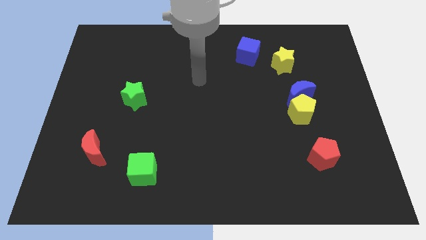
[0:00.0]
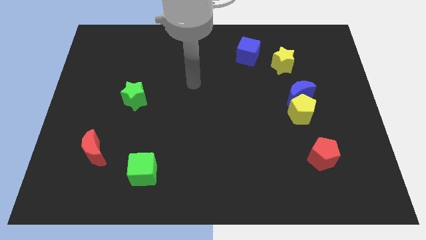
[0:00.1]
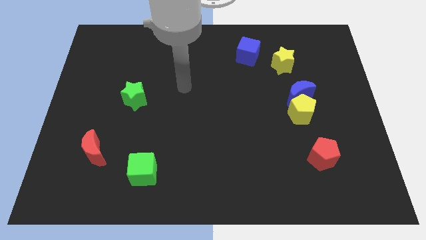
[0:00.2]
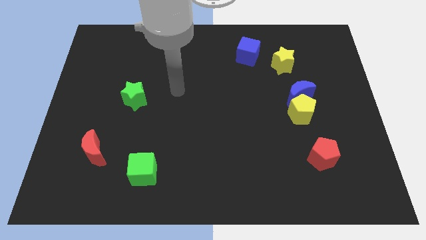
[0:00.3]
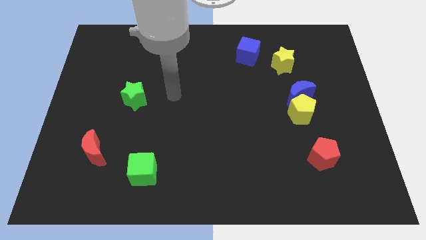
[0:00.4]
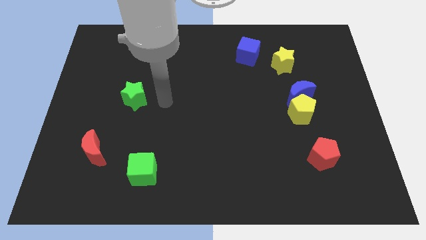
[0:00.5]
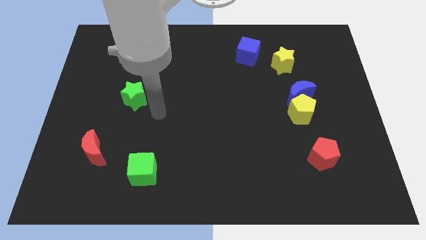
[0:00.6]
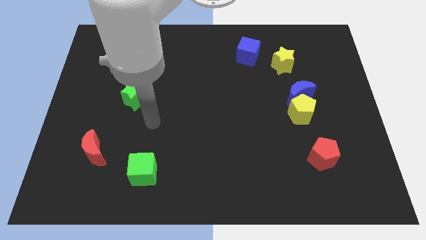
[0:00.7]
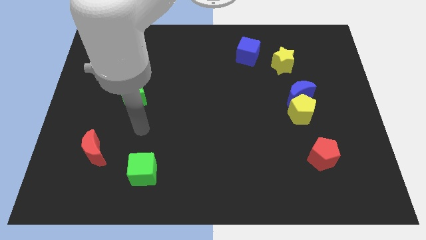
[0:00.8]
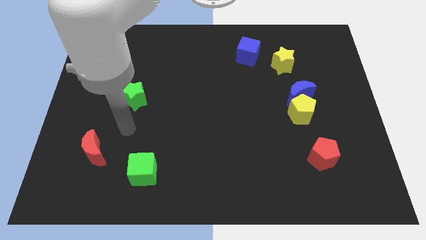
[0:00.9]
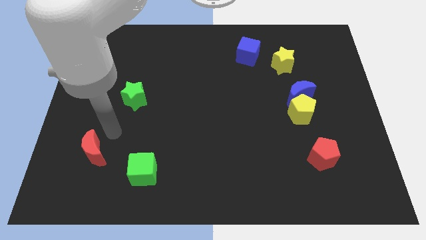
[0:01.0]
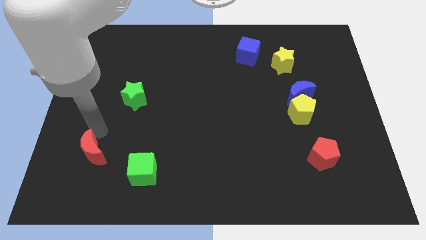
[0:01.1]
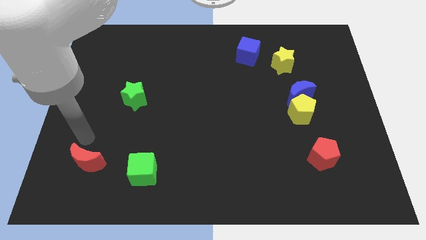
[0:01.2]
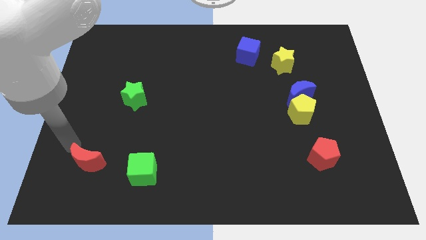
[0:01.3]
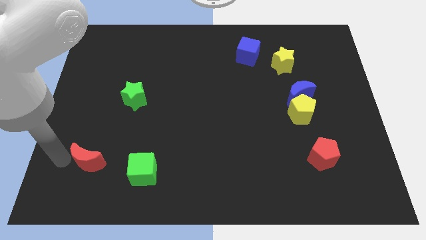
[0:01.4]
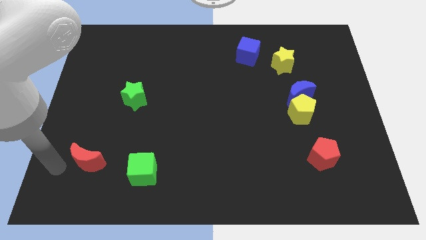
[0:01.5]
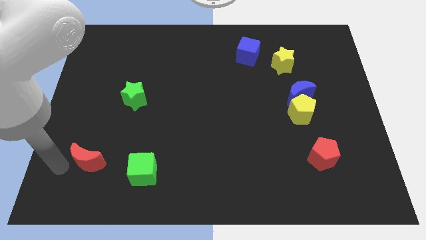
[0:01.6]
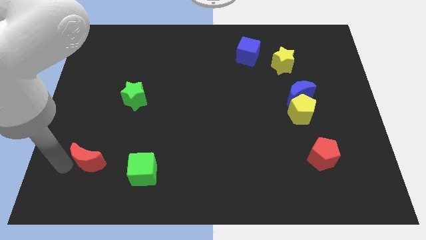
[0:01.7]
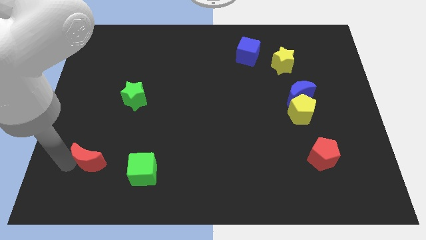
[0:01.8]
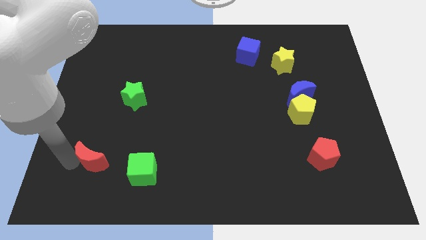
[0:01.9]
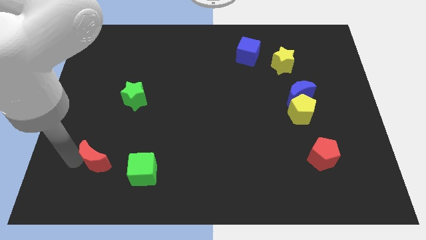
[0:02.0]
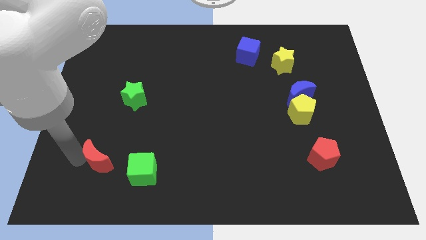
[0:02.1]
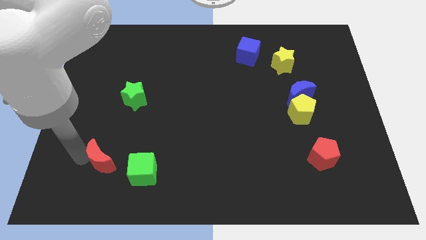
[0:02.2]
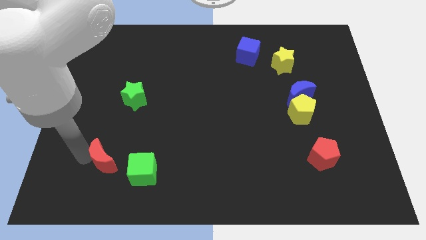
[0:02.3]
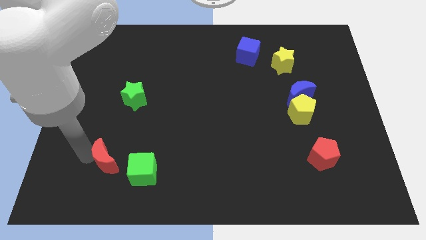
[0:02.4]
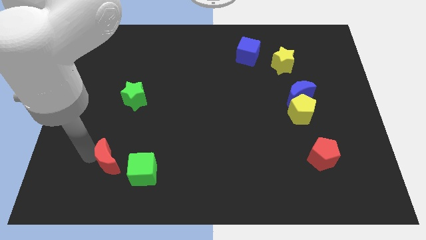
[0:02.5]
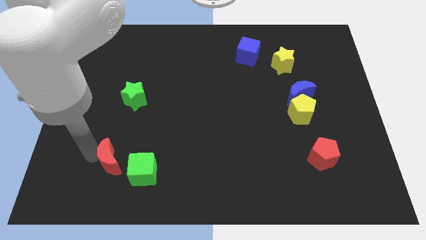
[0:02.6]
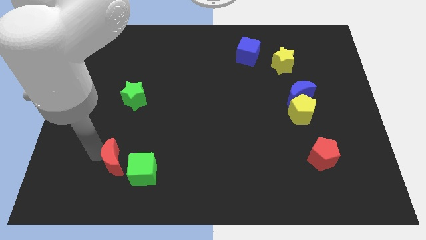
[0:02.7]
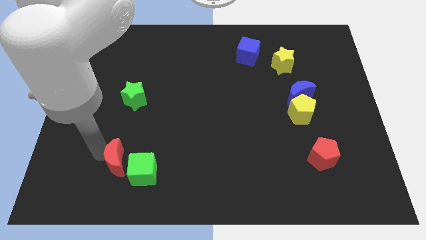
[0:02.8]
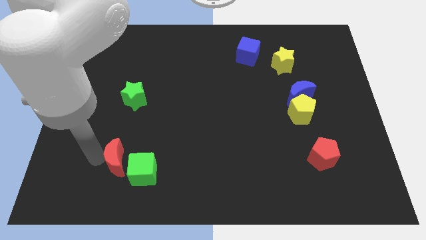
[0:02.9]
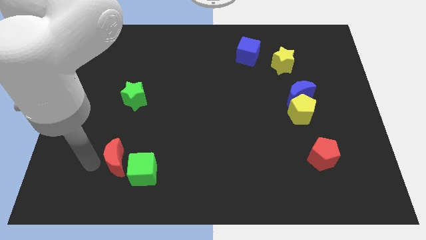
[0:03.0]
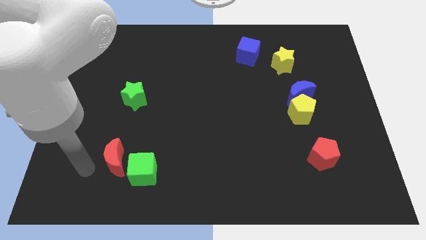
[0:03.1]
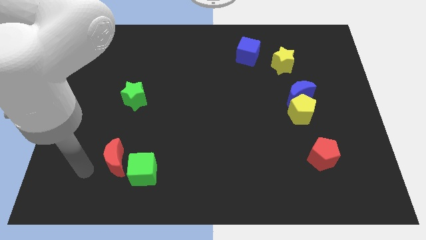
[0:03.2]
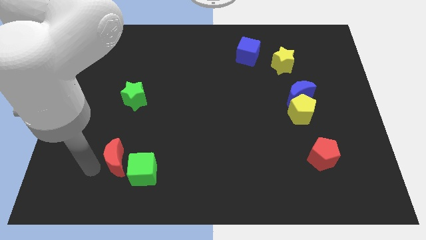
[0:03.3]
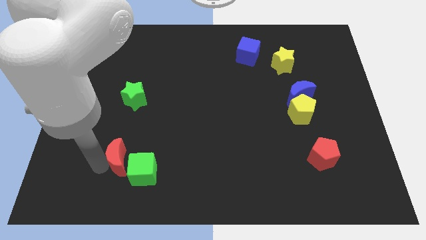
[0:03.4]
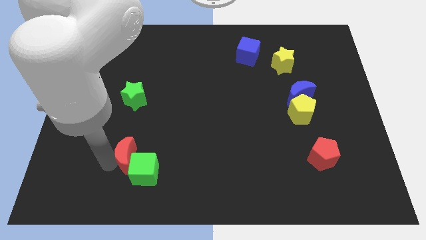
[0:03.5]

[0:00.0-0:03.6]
push the red moon right somewhat

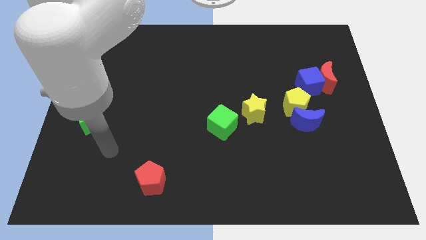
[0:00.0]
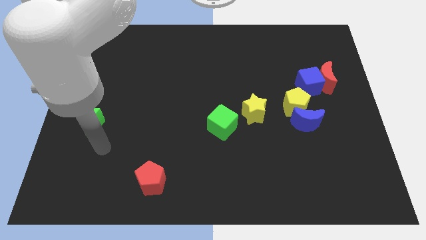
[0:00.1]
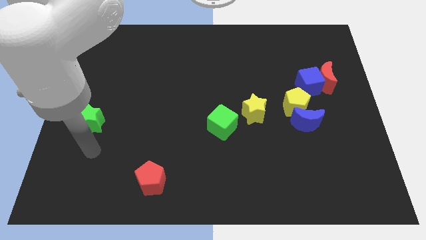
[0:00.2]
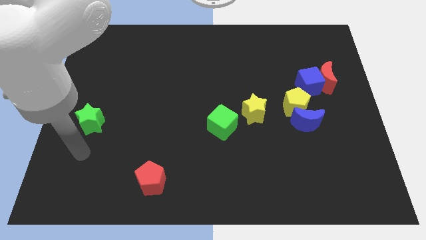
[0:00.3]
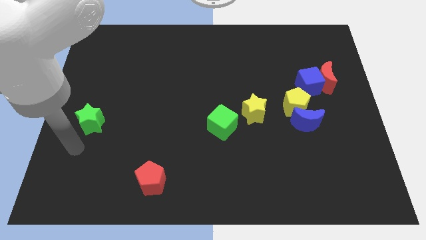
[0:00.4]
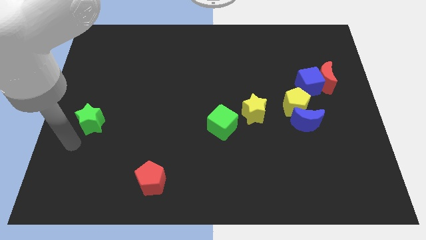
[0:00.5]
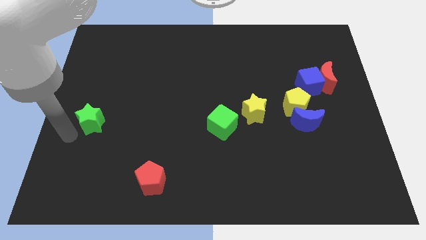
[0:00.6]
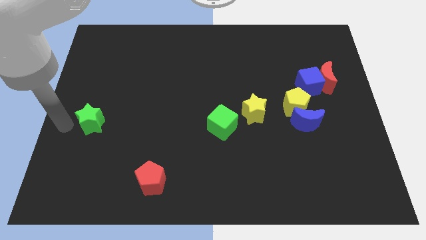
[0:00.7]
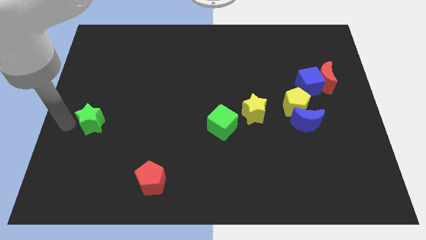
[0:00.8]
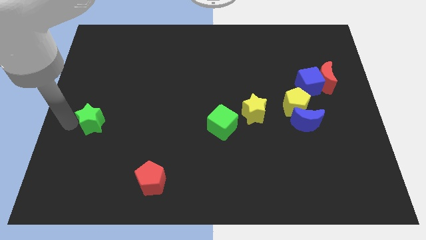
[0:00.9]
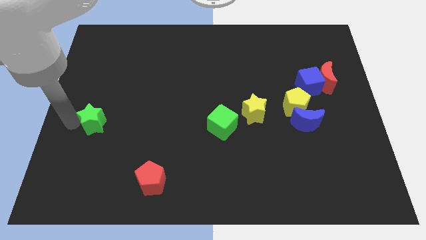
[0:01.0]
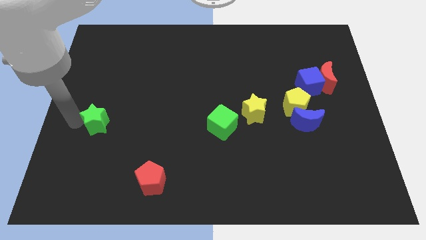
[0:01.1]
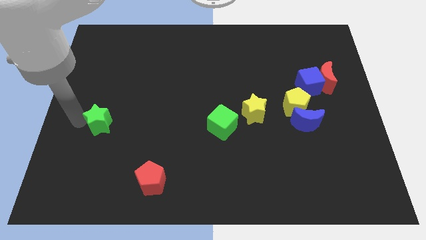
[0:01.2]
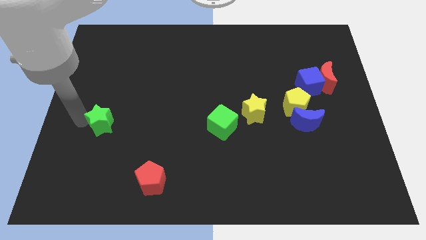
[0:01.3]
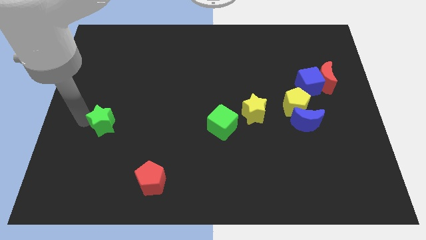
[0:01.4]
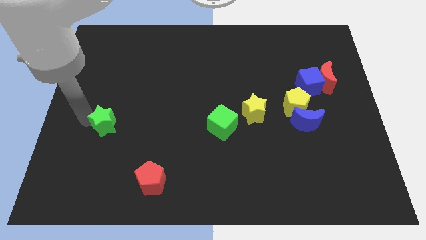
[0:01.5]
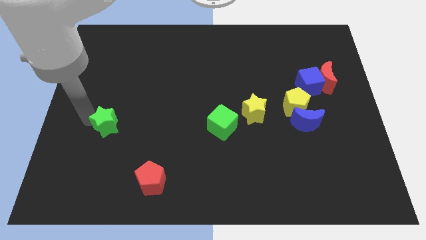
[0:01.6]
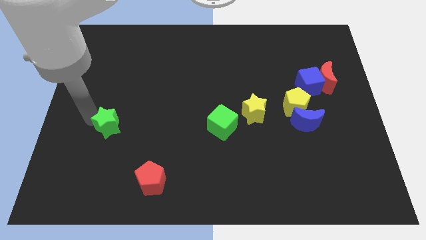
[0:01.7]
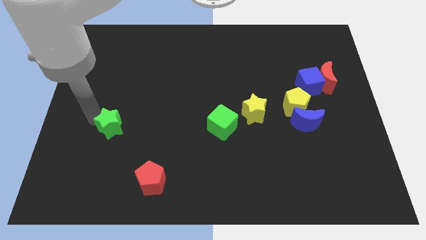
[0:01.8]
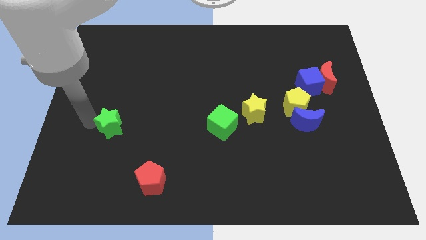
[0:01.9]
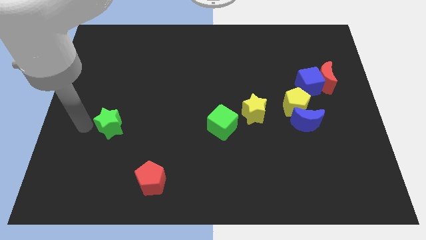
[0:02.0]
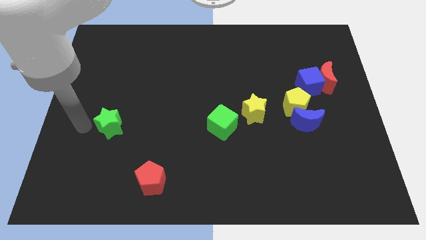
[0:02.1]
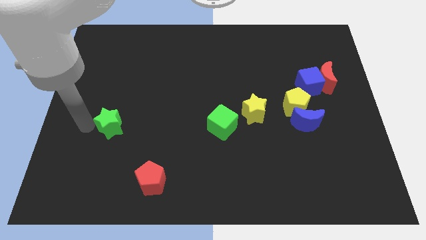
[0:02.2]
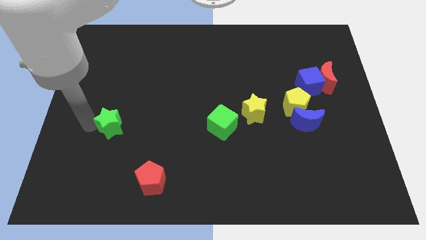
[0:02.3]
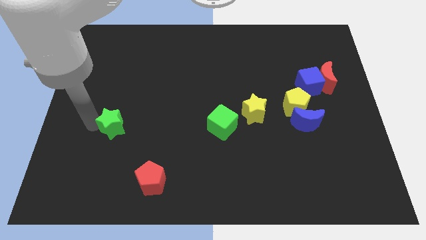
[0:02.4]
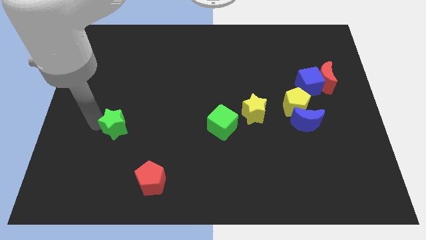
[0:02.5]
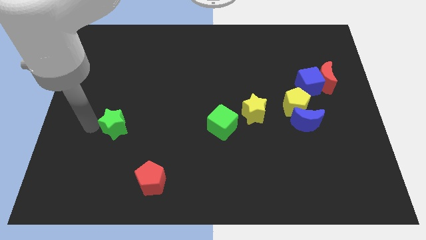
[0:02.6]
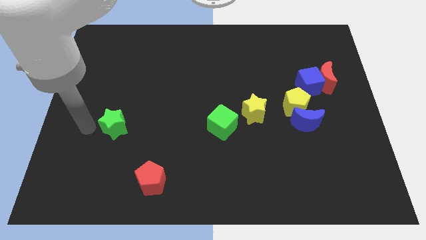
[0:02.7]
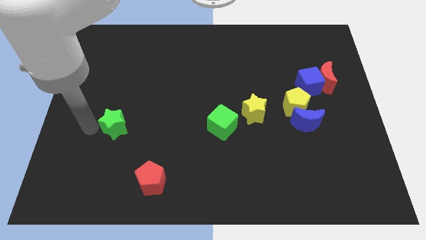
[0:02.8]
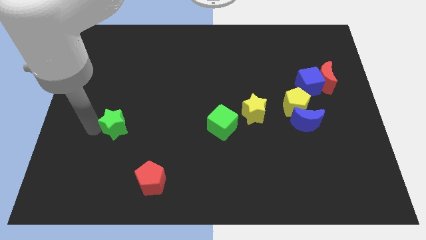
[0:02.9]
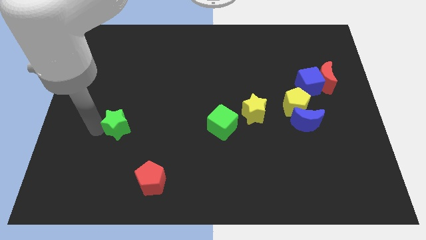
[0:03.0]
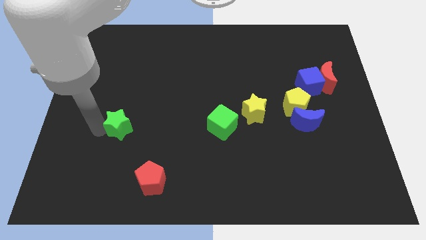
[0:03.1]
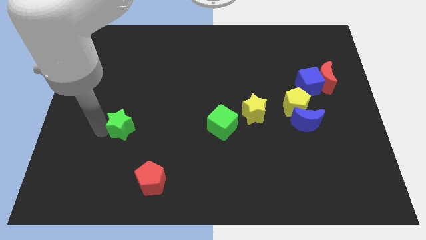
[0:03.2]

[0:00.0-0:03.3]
push the green star a little to the right

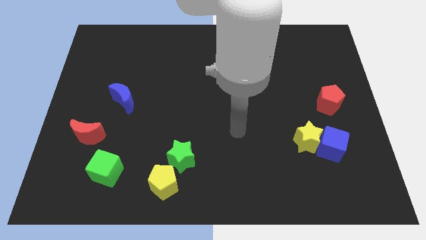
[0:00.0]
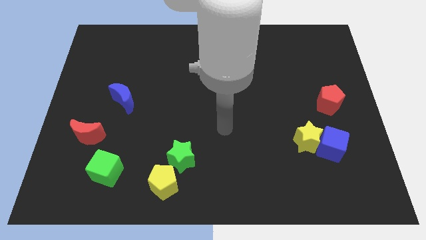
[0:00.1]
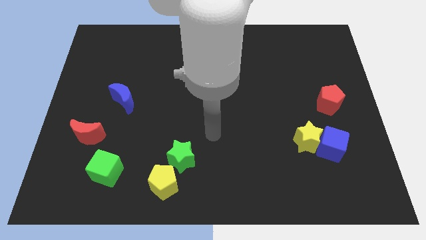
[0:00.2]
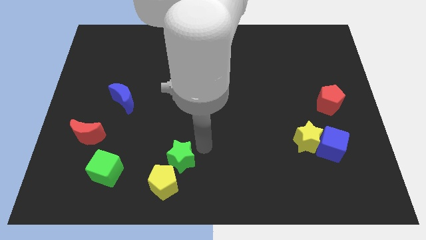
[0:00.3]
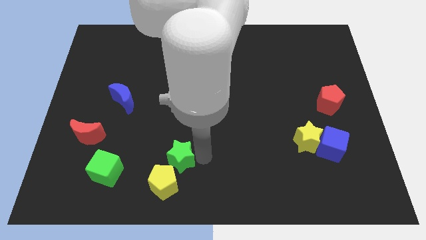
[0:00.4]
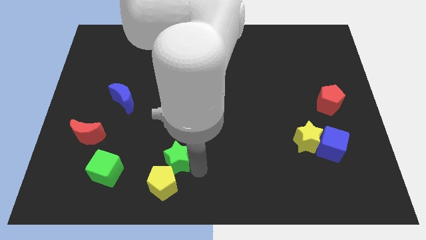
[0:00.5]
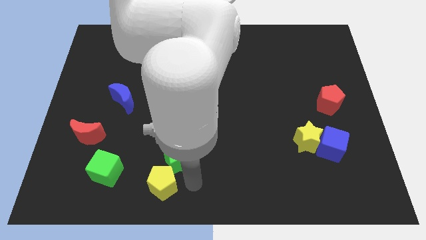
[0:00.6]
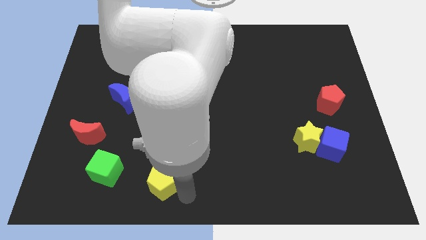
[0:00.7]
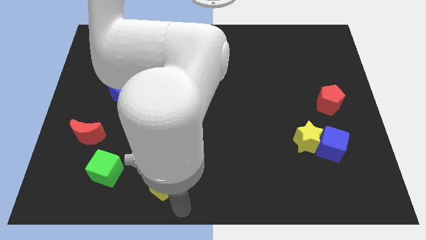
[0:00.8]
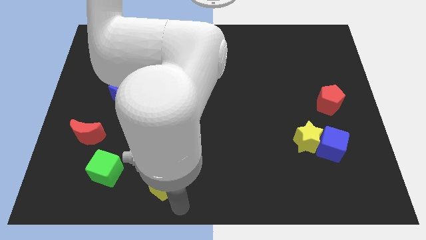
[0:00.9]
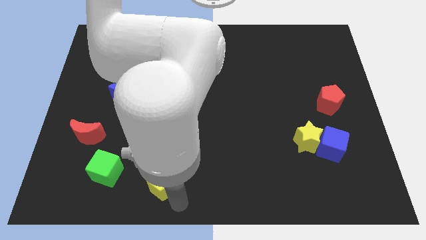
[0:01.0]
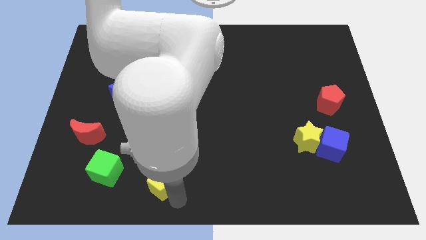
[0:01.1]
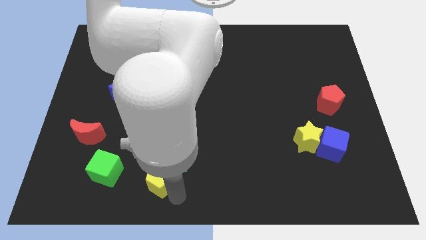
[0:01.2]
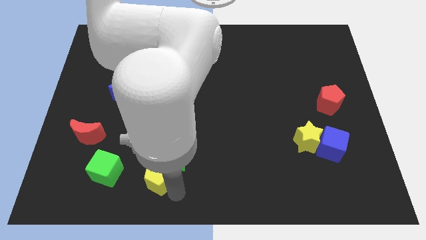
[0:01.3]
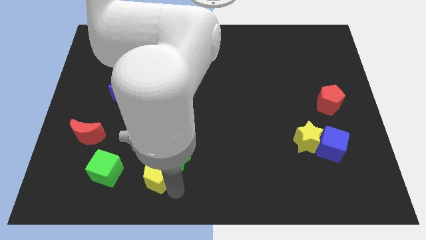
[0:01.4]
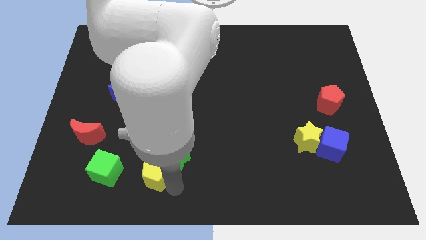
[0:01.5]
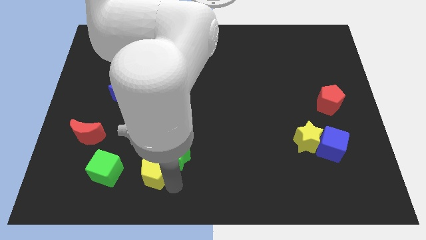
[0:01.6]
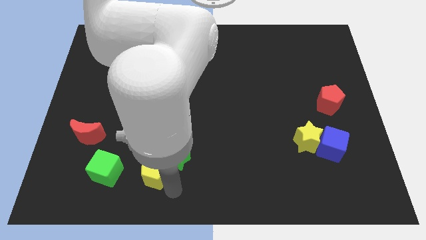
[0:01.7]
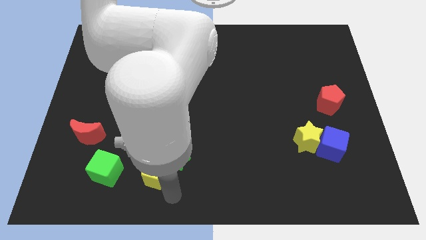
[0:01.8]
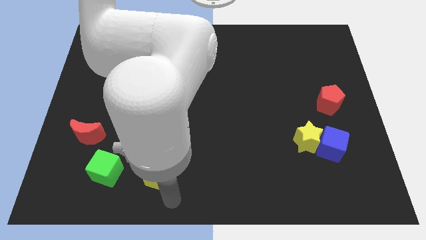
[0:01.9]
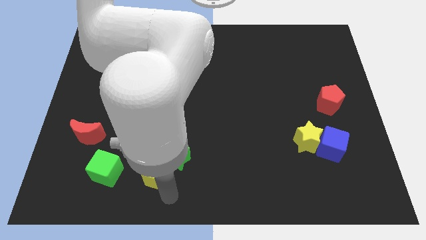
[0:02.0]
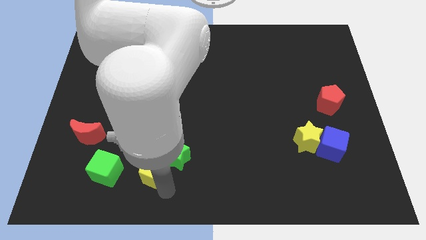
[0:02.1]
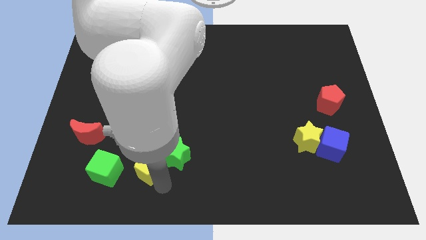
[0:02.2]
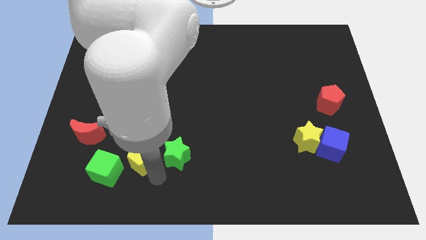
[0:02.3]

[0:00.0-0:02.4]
slide the yellow pentagon diagonally up and to the left a little bit
